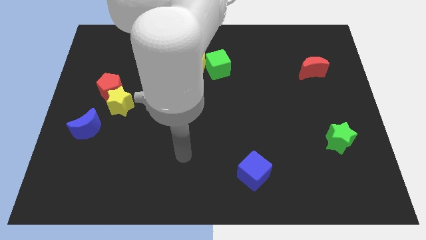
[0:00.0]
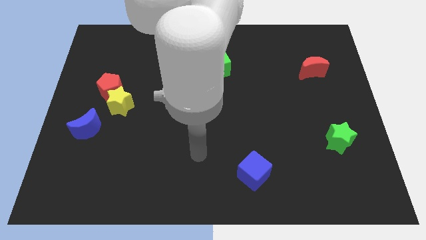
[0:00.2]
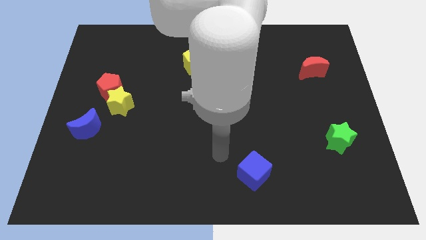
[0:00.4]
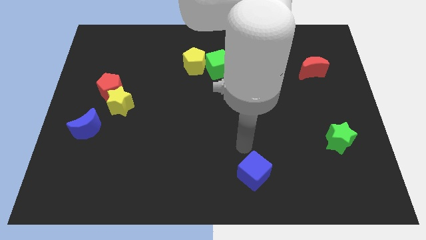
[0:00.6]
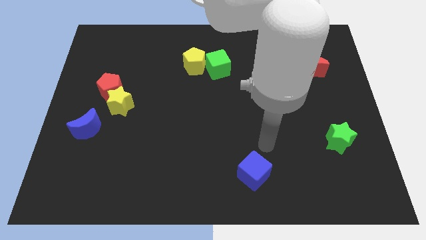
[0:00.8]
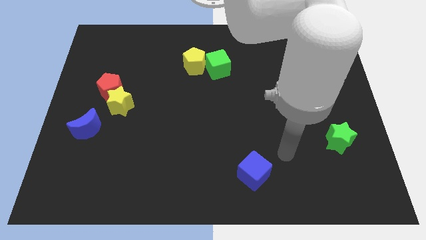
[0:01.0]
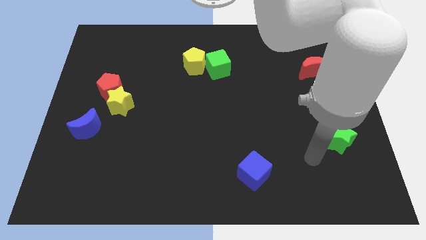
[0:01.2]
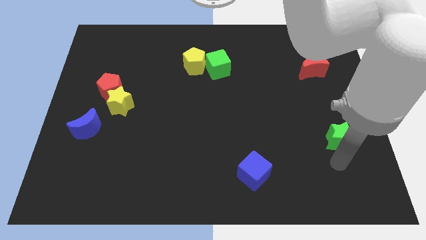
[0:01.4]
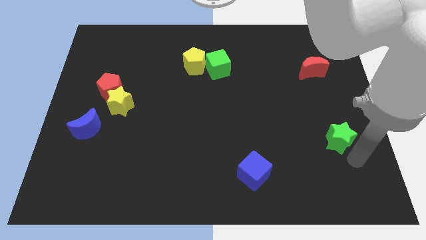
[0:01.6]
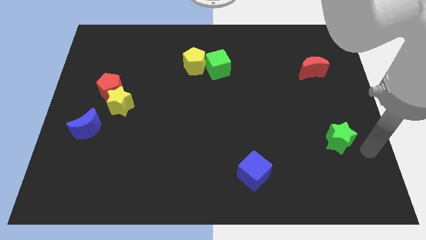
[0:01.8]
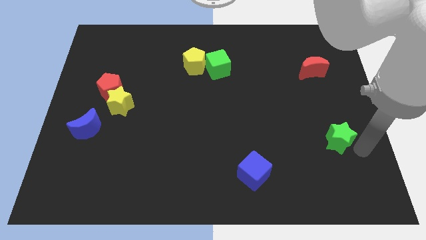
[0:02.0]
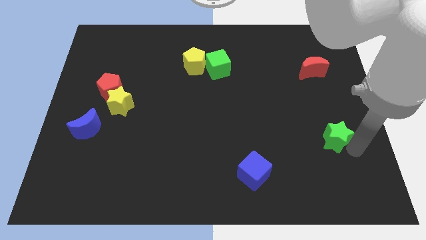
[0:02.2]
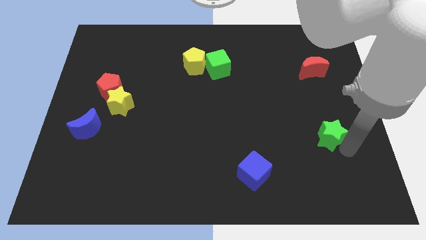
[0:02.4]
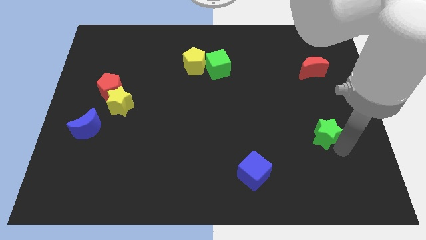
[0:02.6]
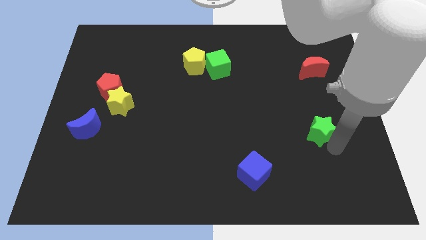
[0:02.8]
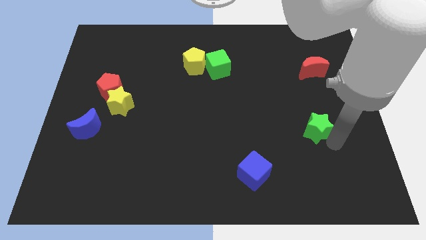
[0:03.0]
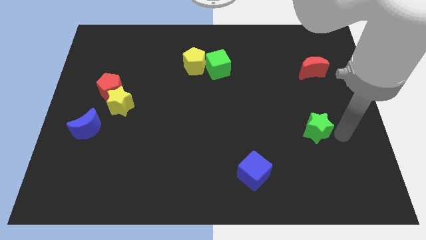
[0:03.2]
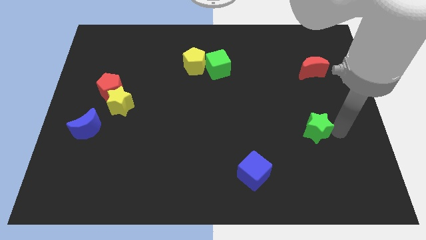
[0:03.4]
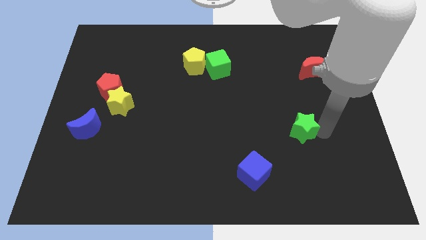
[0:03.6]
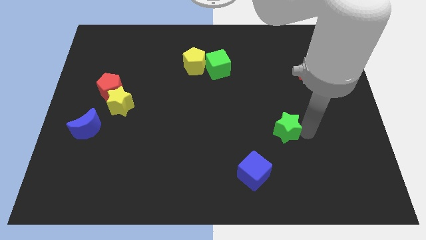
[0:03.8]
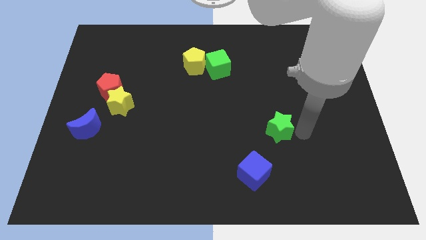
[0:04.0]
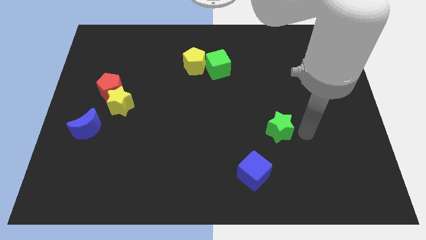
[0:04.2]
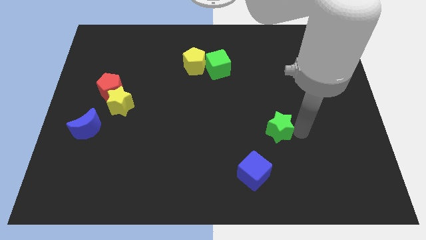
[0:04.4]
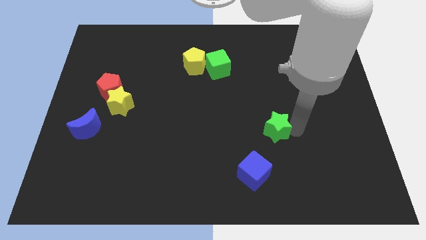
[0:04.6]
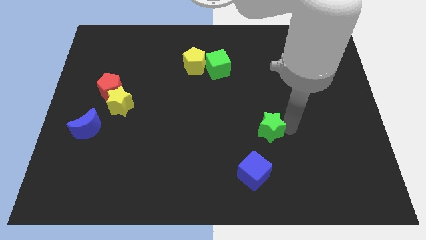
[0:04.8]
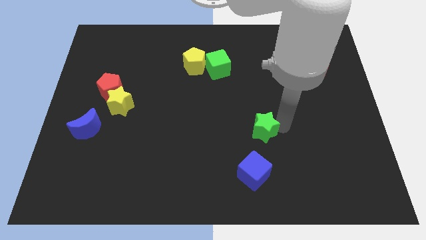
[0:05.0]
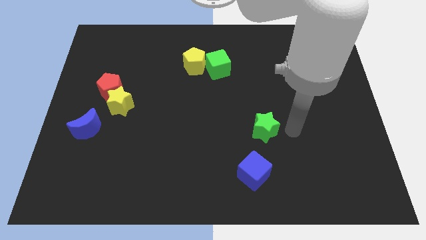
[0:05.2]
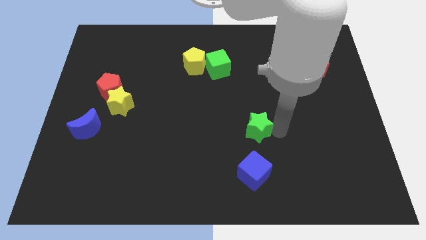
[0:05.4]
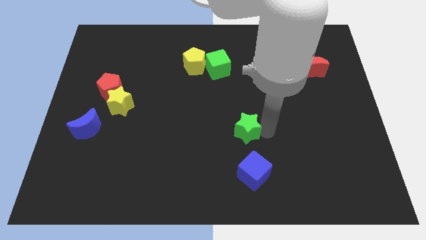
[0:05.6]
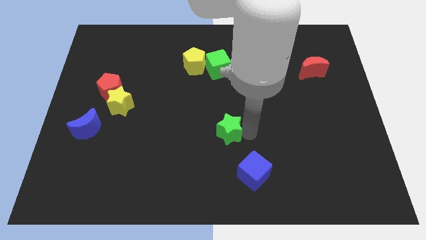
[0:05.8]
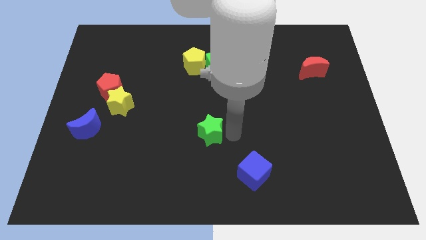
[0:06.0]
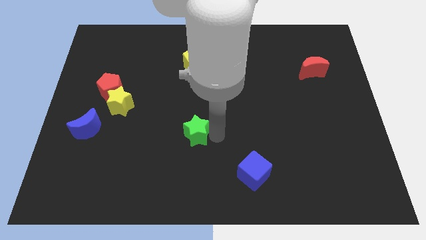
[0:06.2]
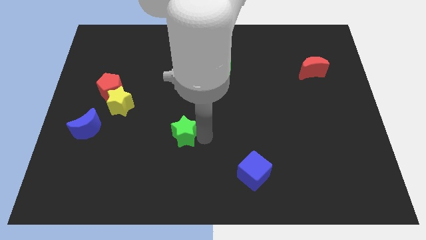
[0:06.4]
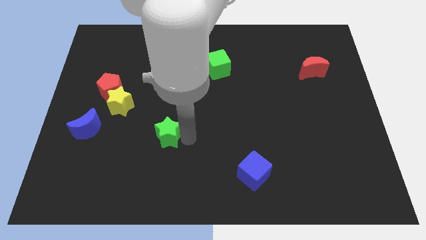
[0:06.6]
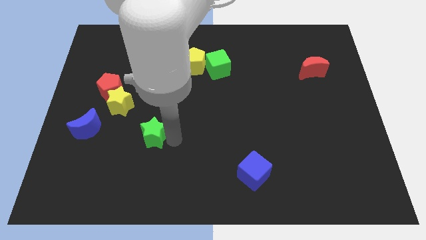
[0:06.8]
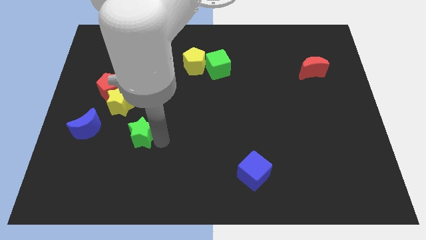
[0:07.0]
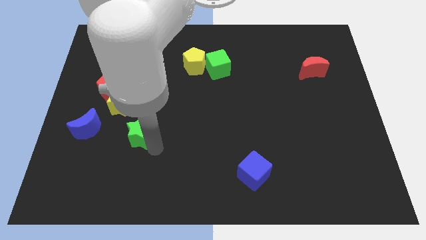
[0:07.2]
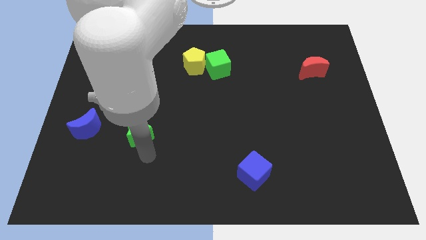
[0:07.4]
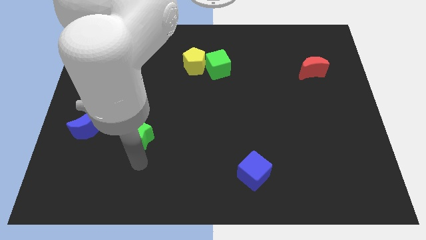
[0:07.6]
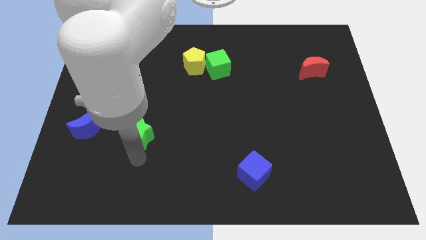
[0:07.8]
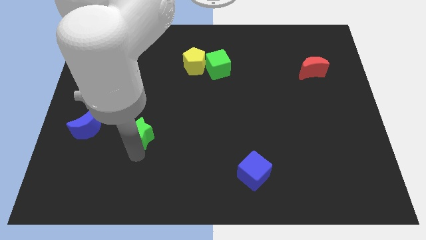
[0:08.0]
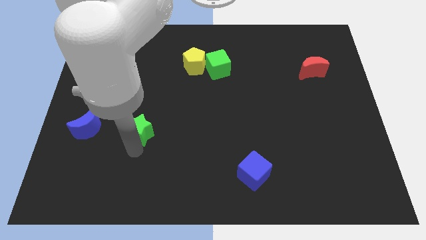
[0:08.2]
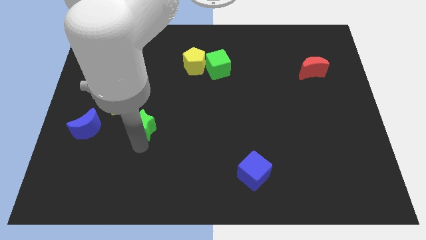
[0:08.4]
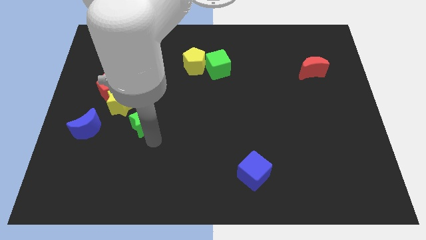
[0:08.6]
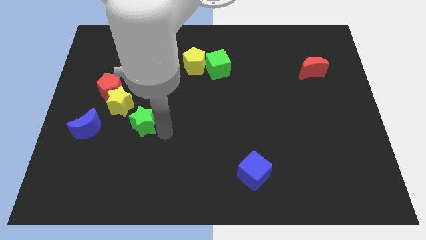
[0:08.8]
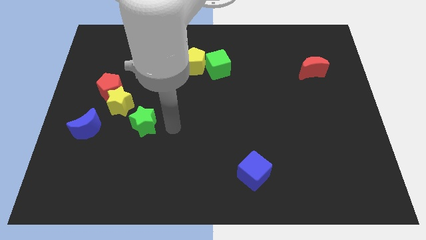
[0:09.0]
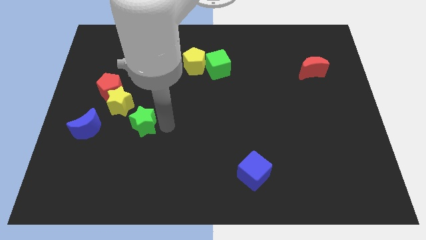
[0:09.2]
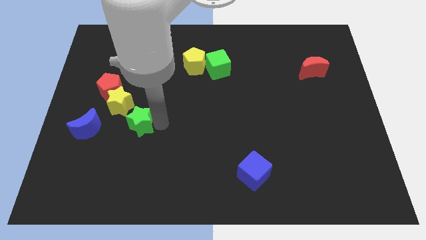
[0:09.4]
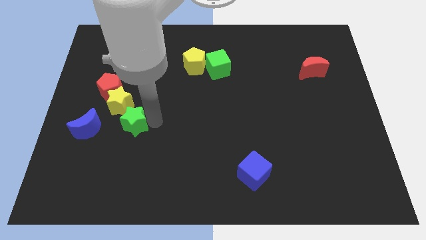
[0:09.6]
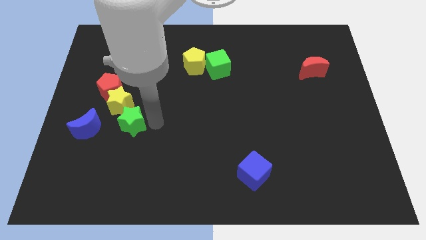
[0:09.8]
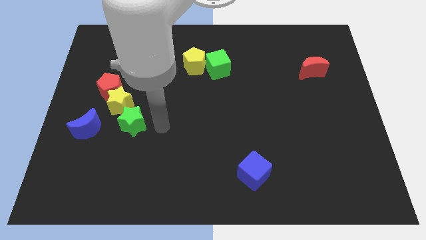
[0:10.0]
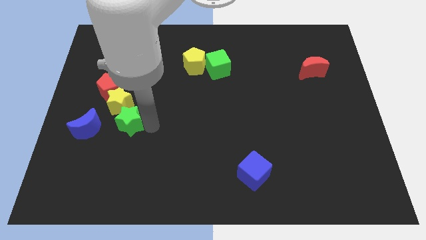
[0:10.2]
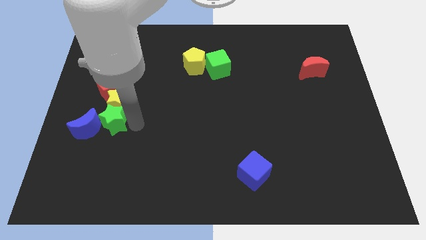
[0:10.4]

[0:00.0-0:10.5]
move the green star next to the blue moon

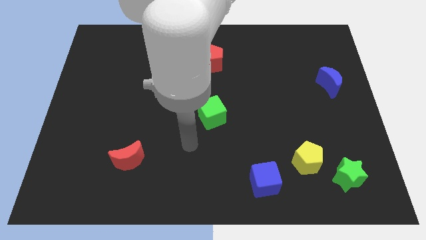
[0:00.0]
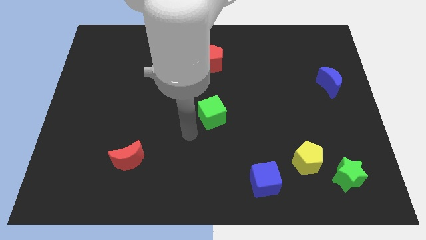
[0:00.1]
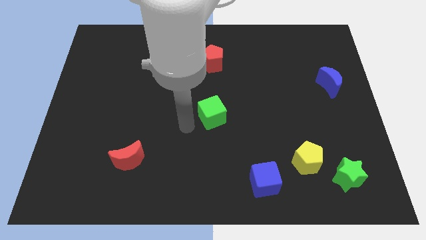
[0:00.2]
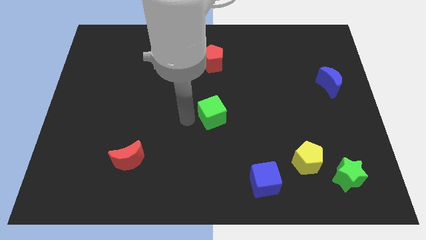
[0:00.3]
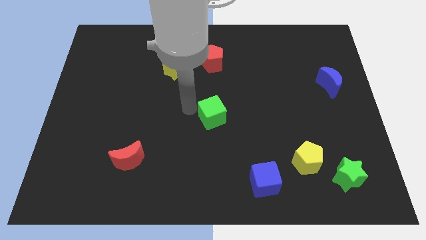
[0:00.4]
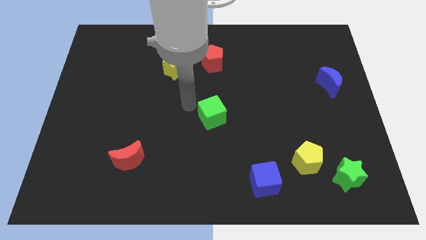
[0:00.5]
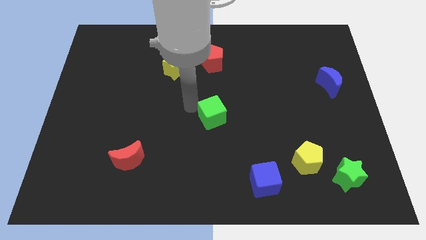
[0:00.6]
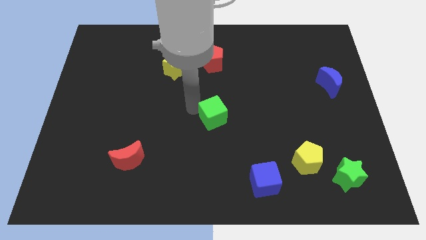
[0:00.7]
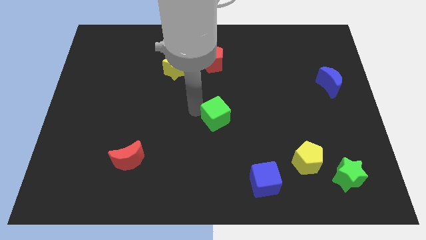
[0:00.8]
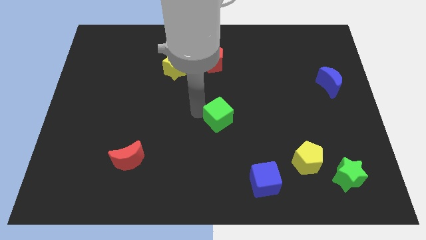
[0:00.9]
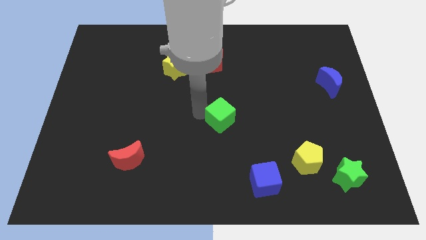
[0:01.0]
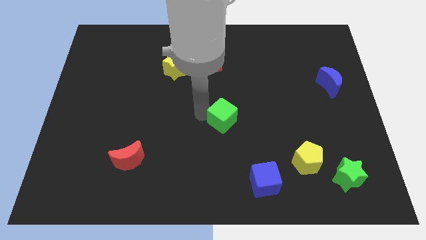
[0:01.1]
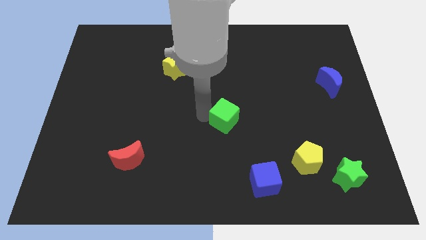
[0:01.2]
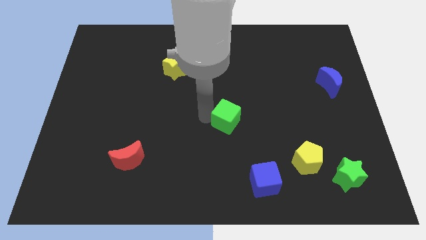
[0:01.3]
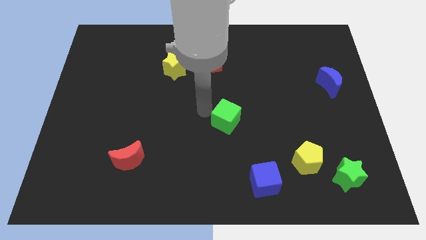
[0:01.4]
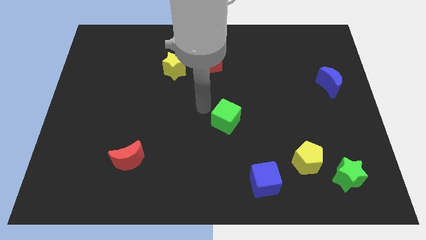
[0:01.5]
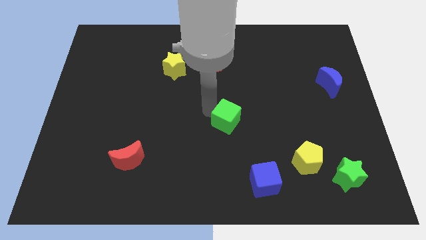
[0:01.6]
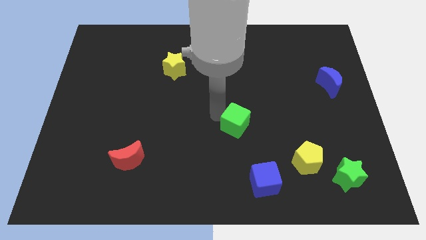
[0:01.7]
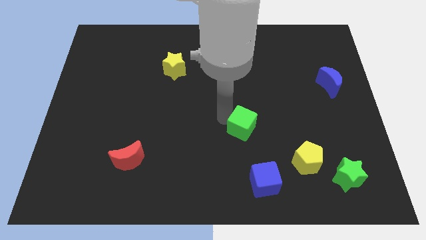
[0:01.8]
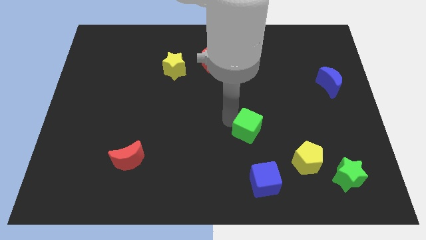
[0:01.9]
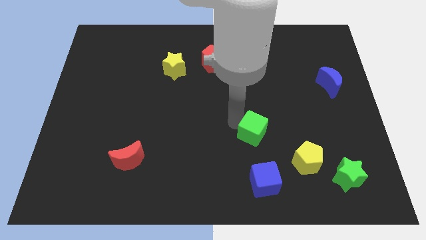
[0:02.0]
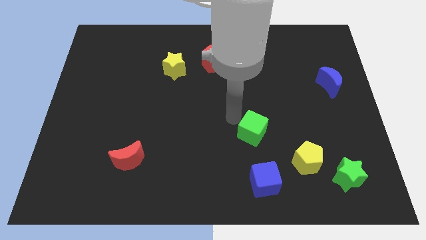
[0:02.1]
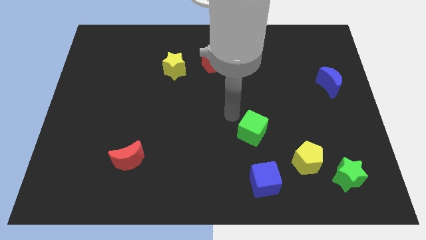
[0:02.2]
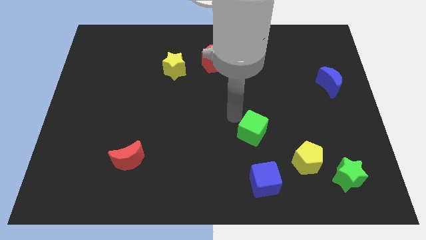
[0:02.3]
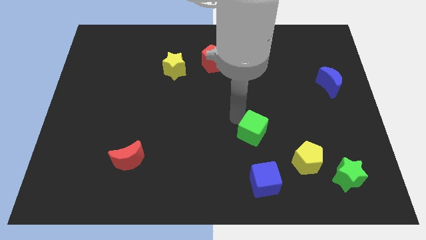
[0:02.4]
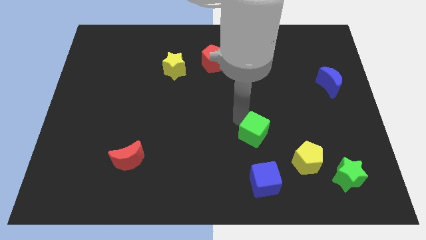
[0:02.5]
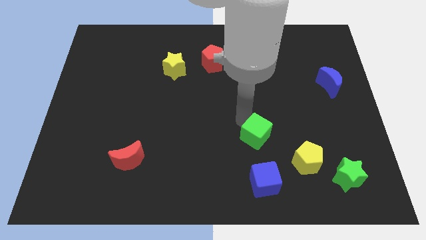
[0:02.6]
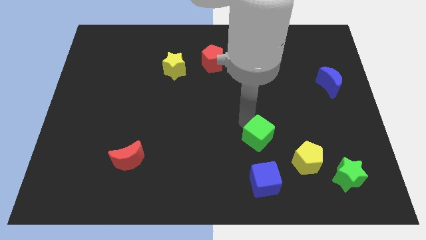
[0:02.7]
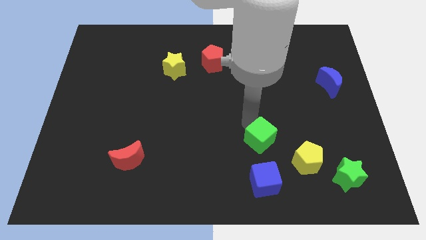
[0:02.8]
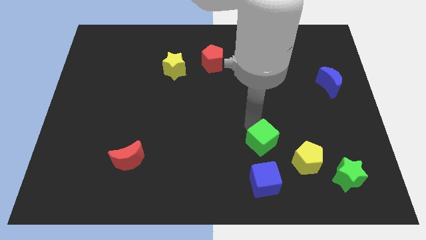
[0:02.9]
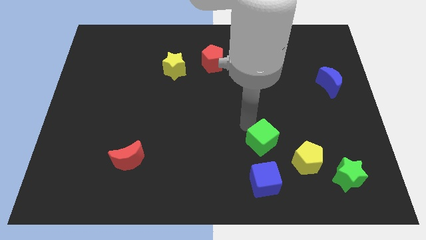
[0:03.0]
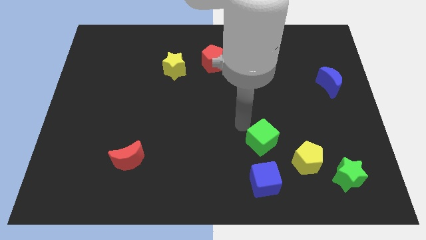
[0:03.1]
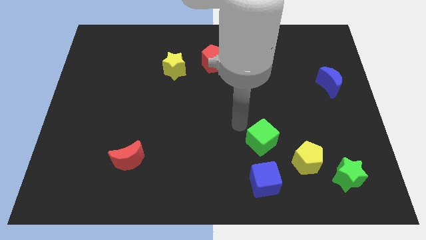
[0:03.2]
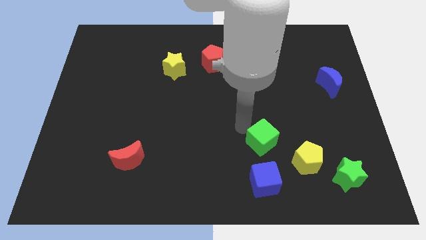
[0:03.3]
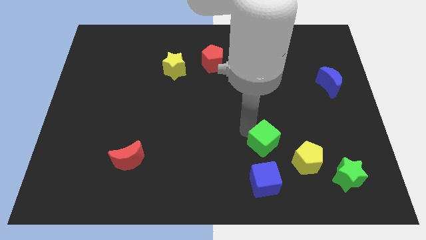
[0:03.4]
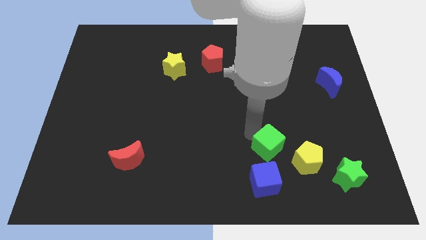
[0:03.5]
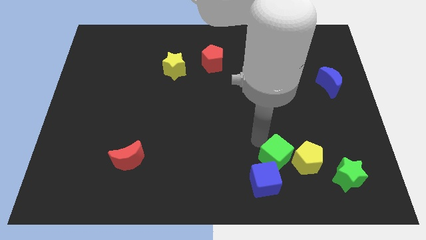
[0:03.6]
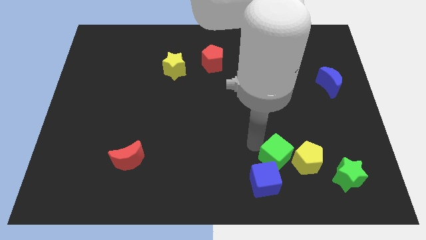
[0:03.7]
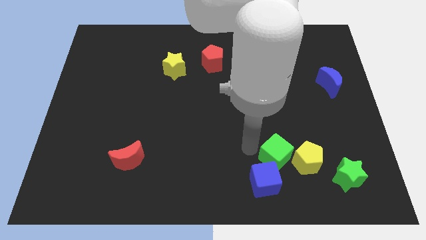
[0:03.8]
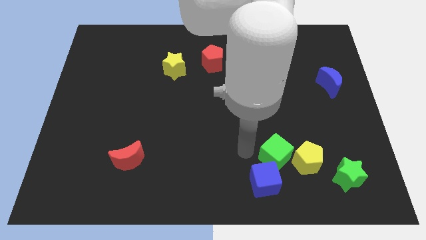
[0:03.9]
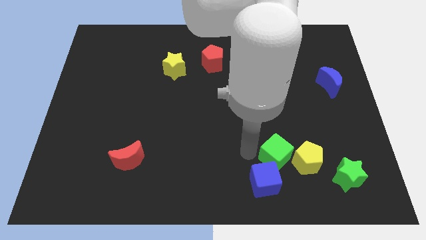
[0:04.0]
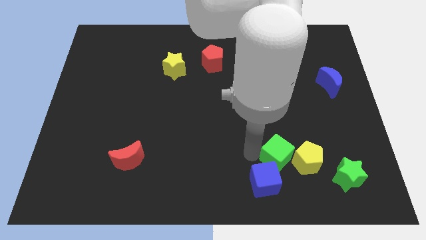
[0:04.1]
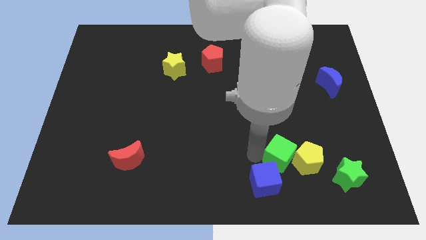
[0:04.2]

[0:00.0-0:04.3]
move the green cube close to the yellow pentagon
